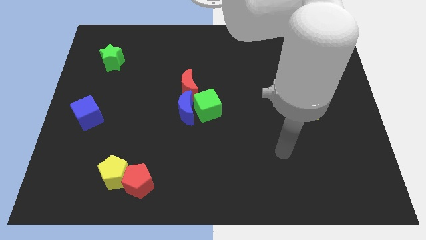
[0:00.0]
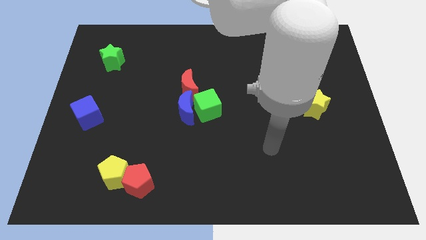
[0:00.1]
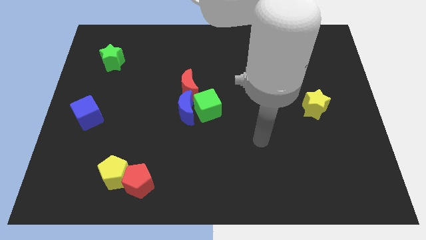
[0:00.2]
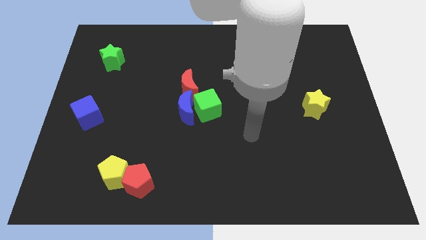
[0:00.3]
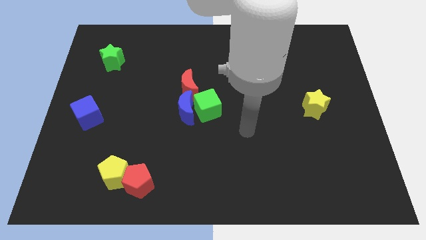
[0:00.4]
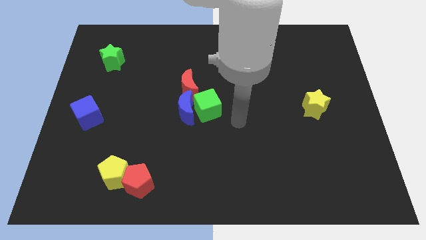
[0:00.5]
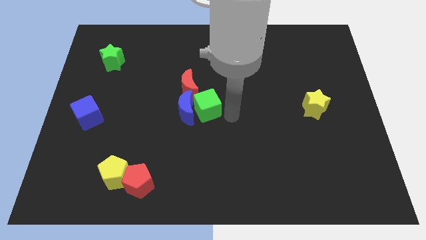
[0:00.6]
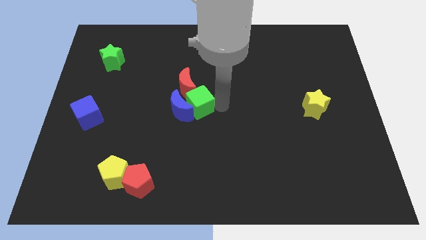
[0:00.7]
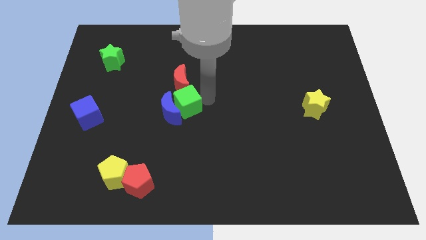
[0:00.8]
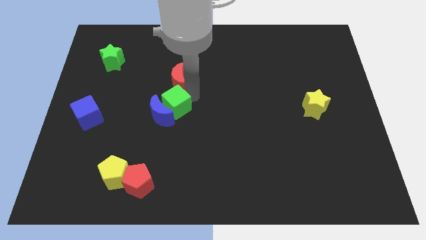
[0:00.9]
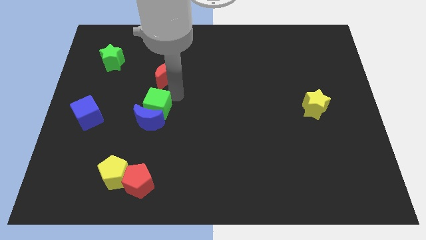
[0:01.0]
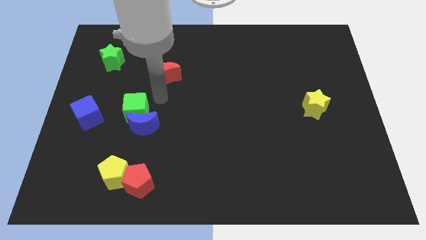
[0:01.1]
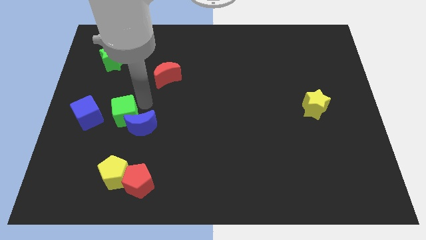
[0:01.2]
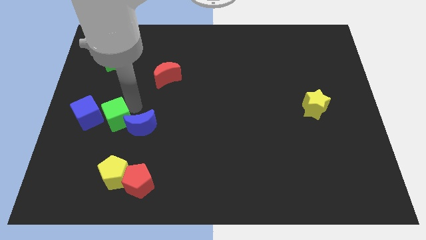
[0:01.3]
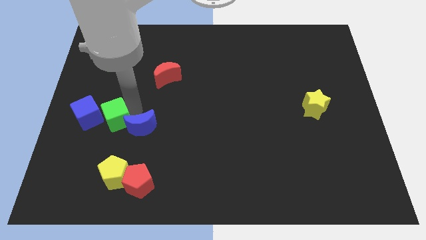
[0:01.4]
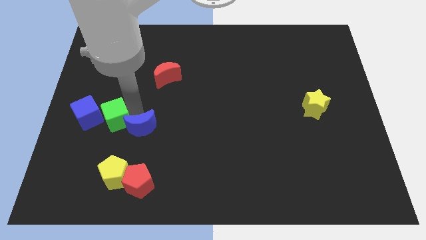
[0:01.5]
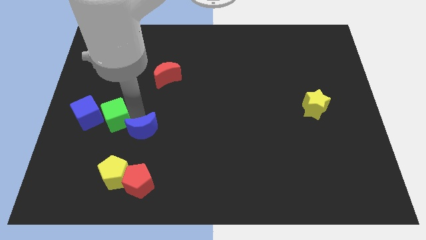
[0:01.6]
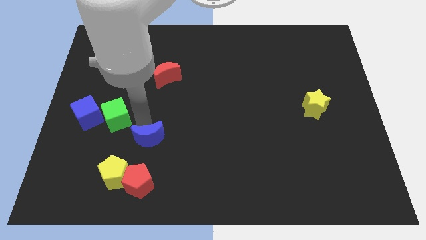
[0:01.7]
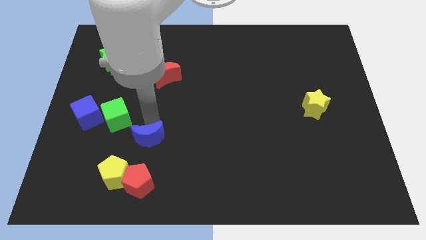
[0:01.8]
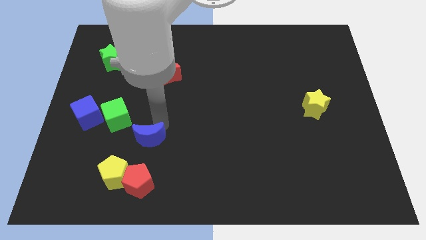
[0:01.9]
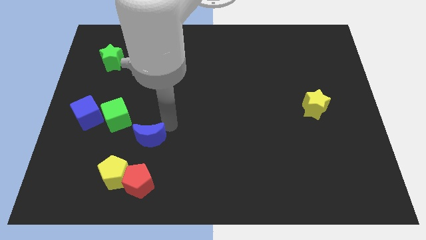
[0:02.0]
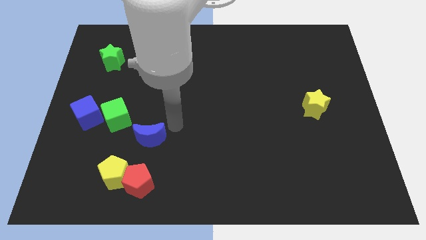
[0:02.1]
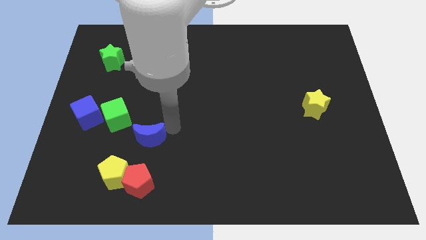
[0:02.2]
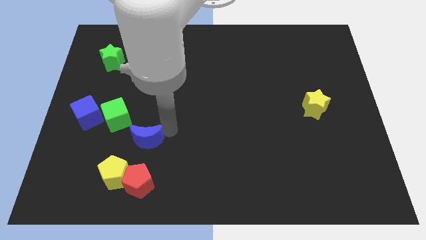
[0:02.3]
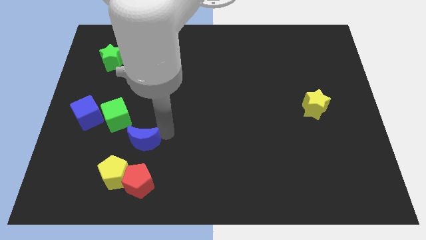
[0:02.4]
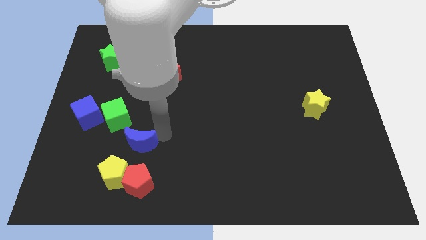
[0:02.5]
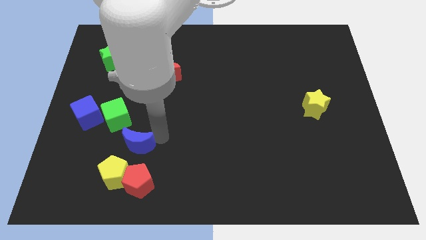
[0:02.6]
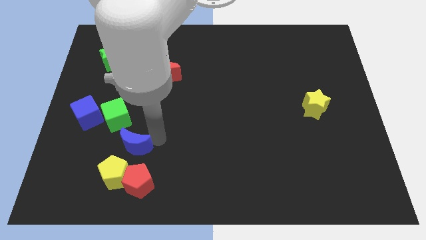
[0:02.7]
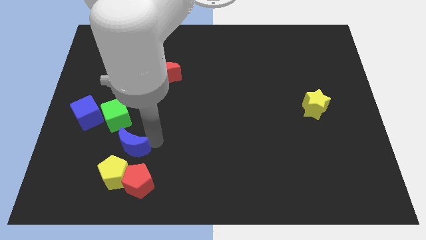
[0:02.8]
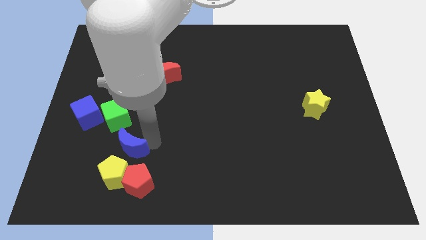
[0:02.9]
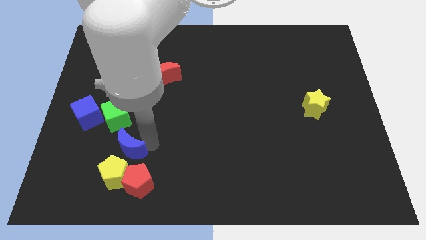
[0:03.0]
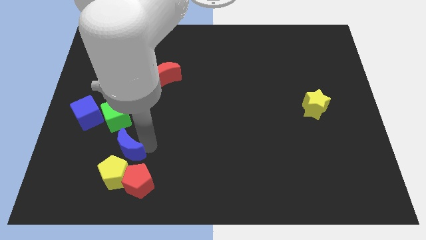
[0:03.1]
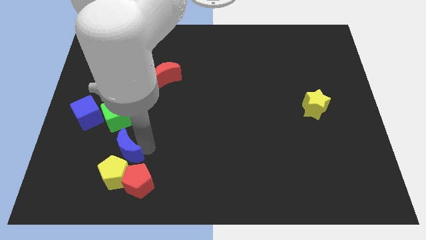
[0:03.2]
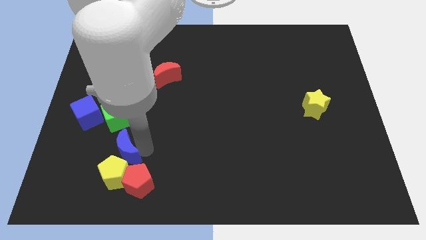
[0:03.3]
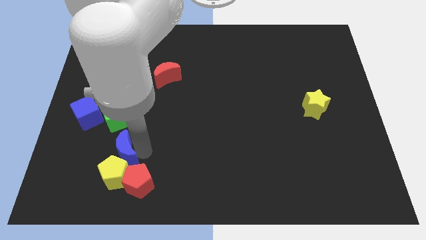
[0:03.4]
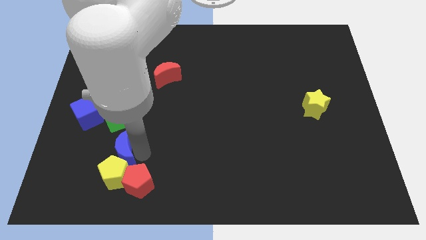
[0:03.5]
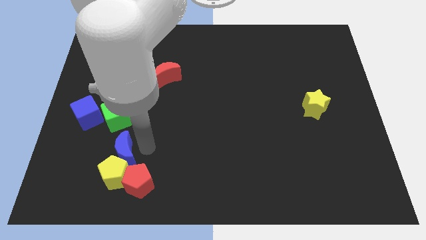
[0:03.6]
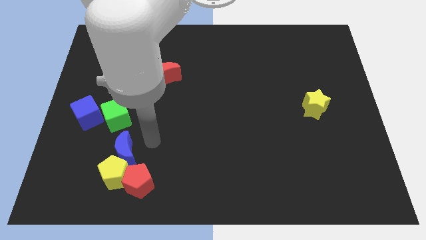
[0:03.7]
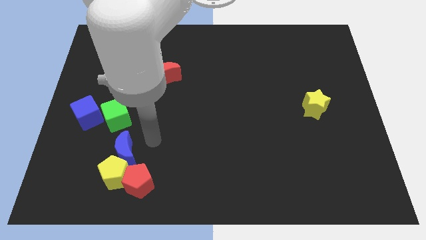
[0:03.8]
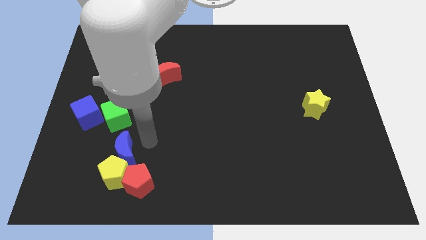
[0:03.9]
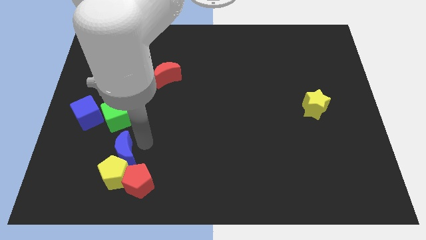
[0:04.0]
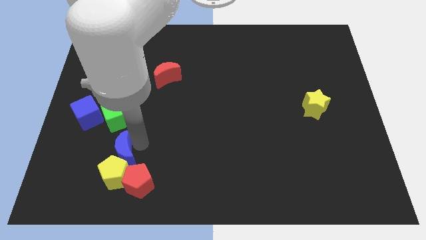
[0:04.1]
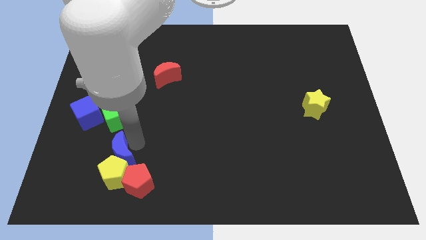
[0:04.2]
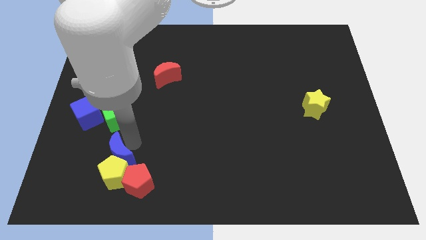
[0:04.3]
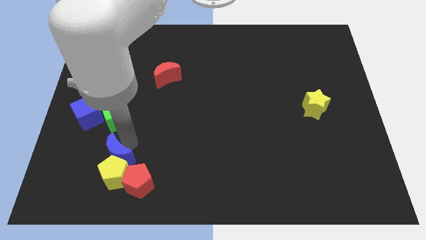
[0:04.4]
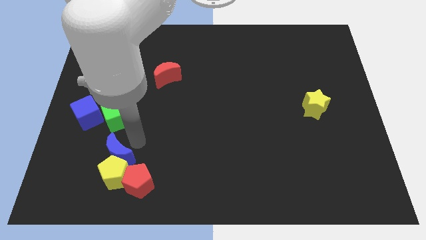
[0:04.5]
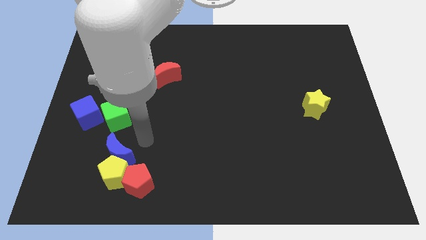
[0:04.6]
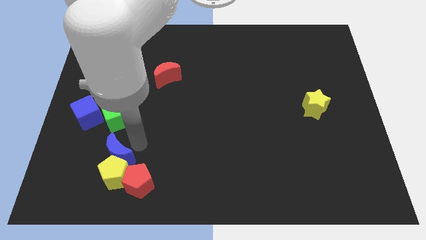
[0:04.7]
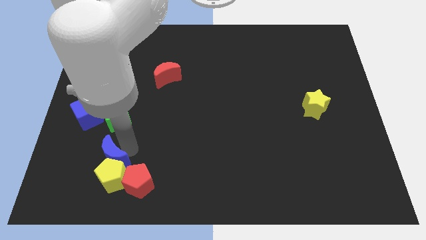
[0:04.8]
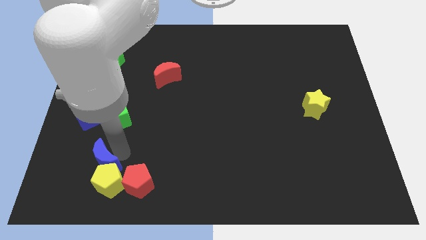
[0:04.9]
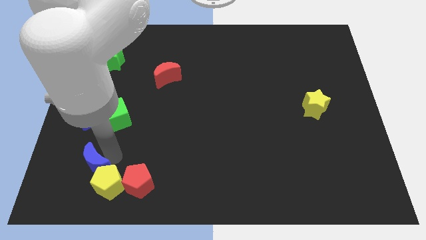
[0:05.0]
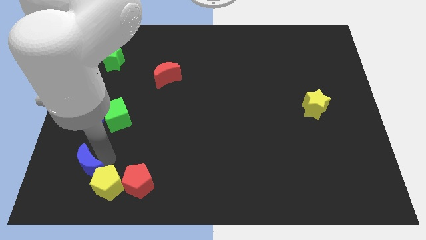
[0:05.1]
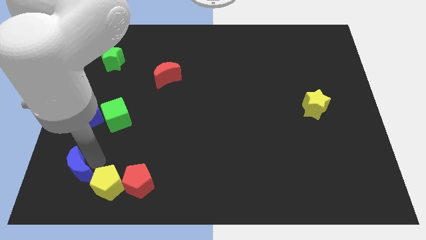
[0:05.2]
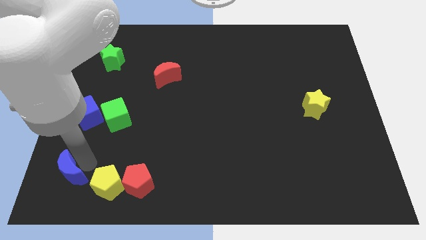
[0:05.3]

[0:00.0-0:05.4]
put the blue moon to the bottom left corner

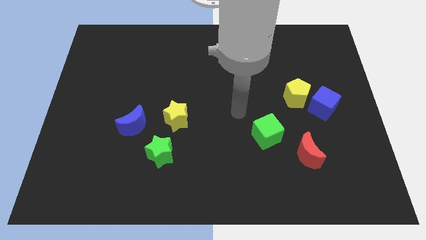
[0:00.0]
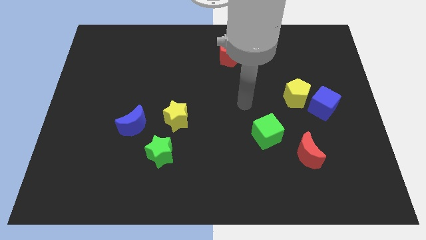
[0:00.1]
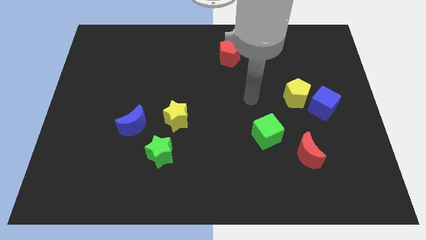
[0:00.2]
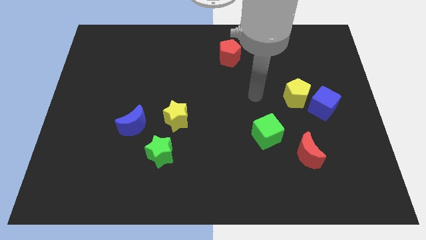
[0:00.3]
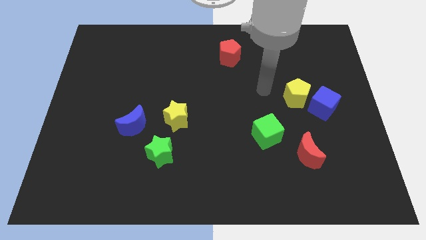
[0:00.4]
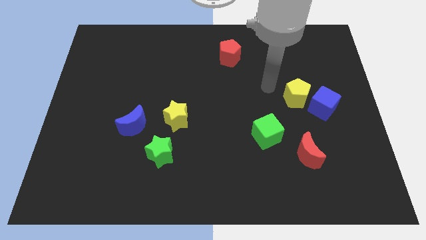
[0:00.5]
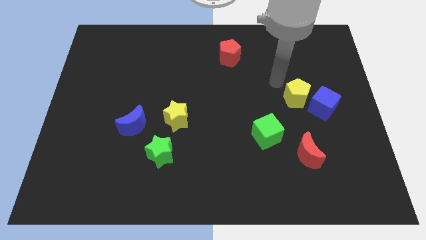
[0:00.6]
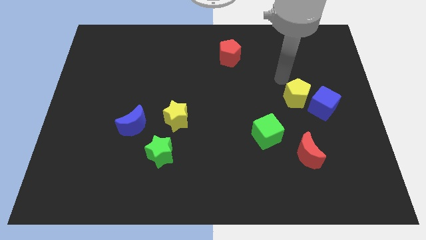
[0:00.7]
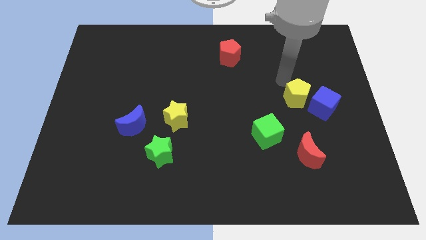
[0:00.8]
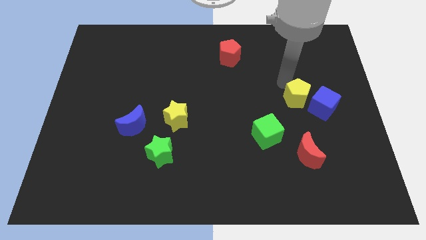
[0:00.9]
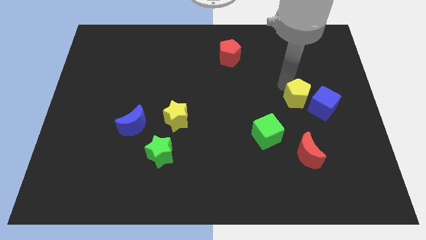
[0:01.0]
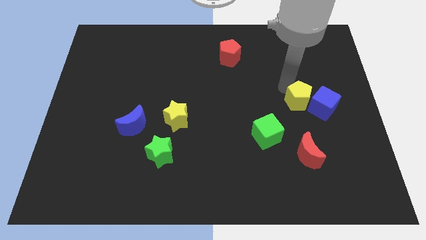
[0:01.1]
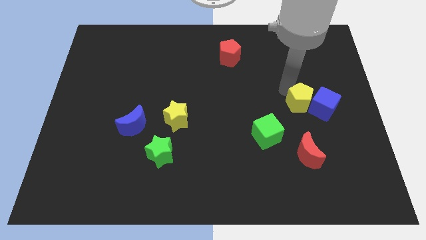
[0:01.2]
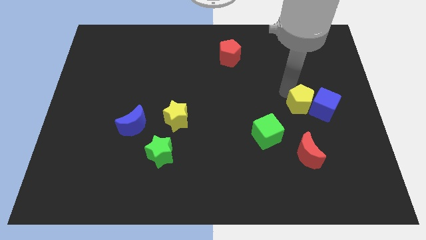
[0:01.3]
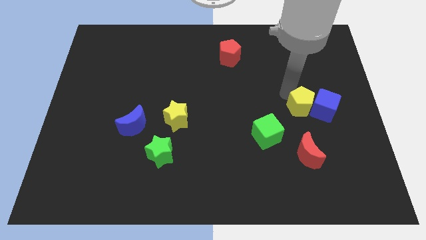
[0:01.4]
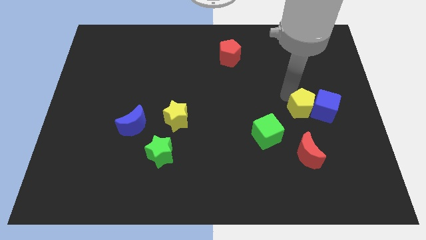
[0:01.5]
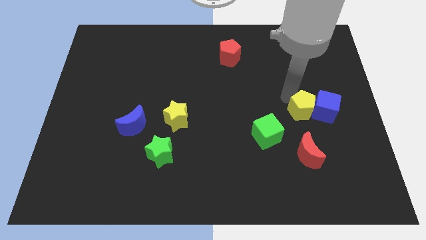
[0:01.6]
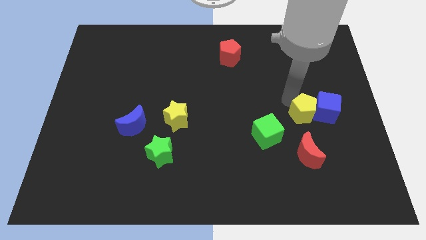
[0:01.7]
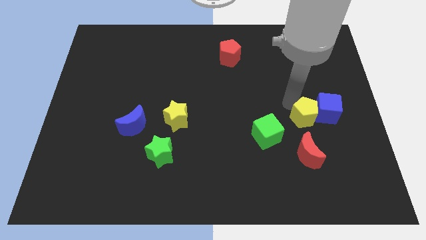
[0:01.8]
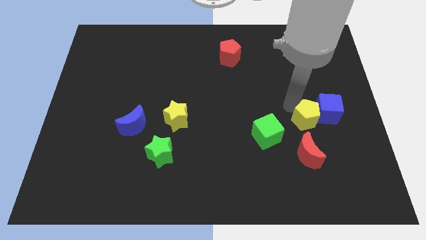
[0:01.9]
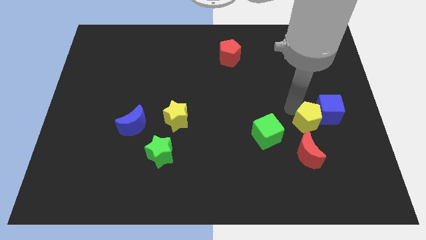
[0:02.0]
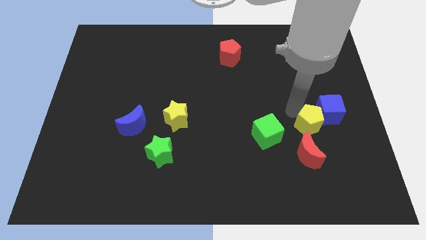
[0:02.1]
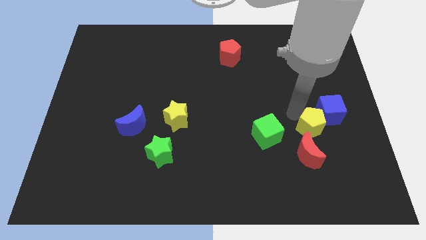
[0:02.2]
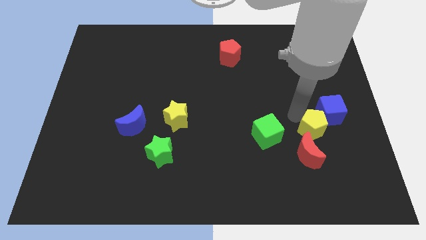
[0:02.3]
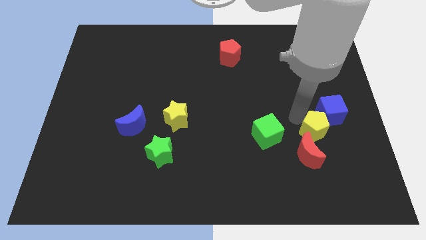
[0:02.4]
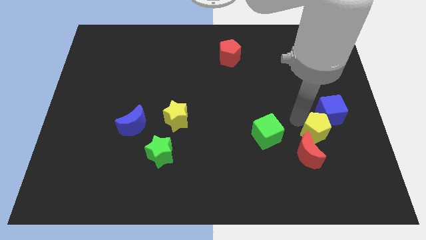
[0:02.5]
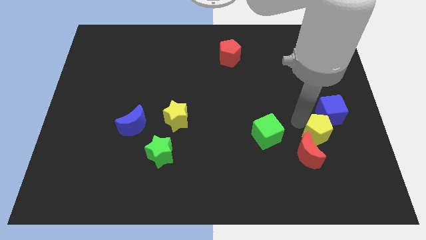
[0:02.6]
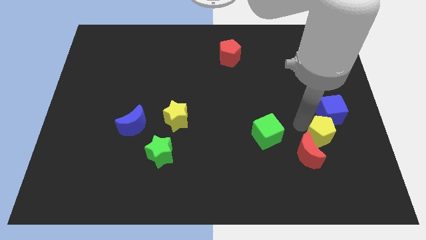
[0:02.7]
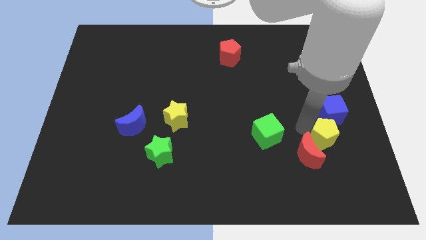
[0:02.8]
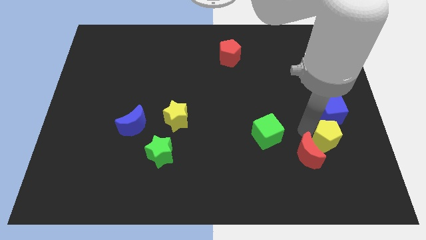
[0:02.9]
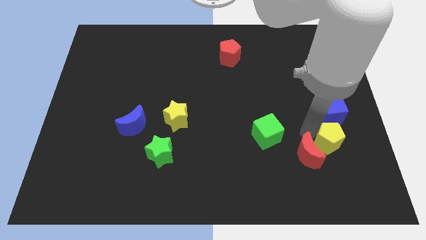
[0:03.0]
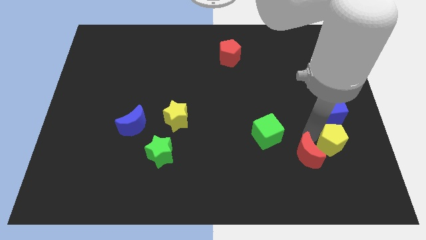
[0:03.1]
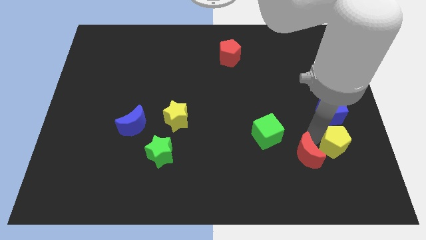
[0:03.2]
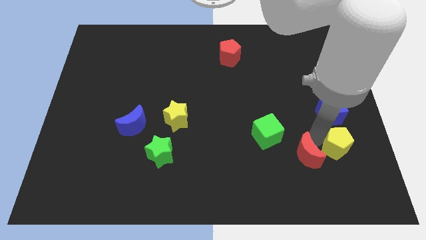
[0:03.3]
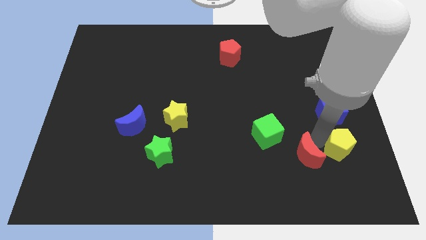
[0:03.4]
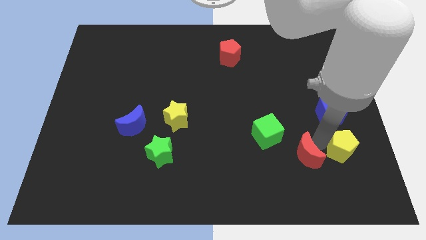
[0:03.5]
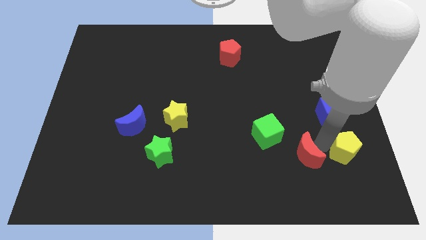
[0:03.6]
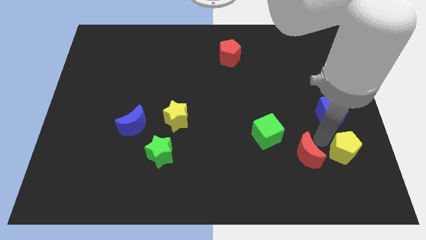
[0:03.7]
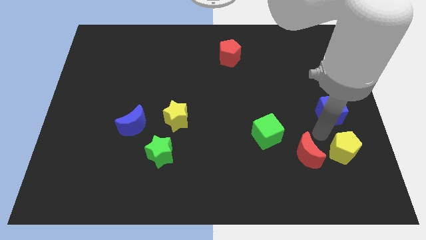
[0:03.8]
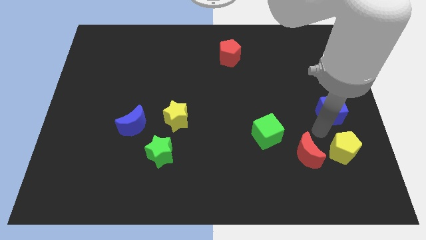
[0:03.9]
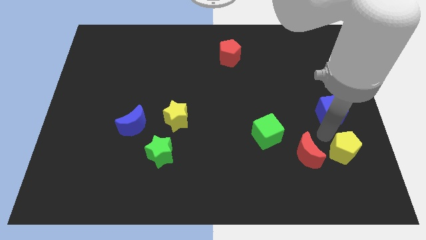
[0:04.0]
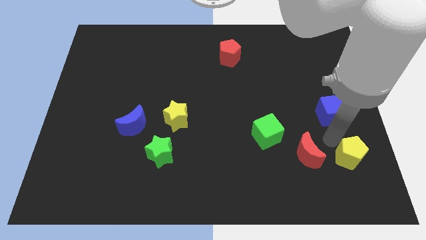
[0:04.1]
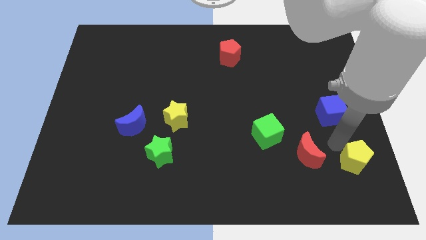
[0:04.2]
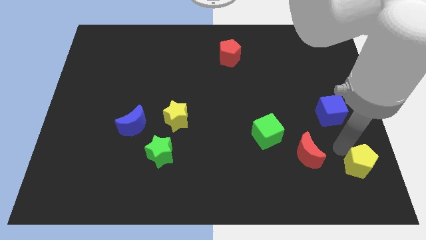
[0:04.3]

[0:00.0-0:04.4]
put the yellow pentagon to the bottom right of the board
